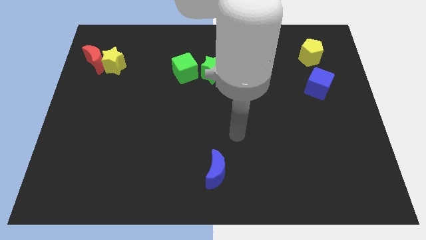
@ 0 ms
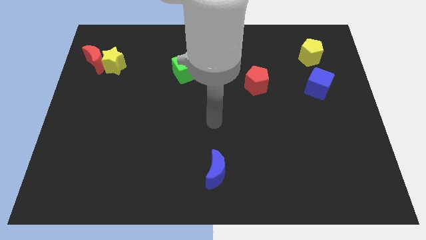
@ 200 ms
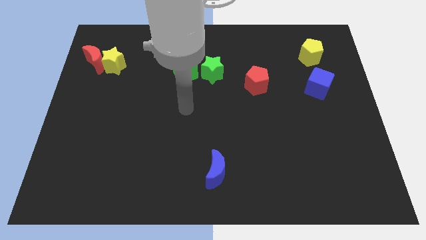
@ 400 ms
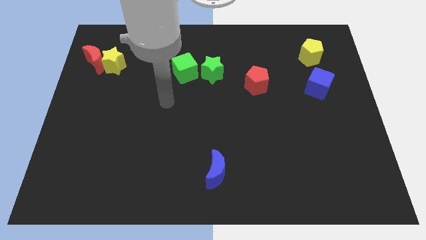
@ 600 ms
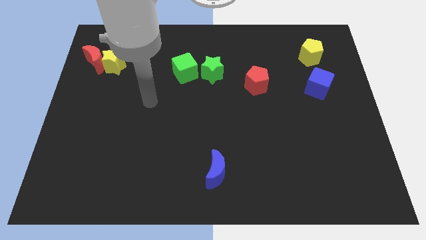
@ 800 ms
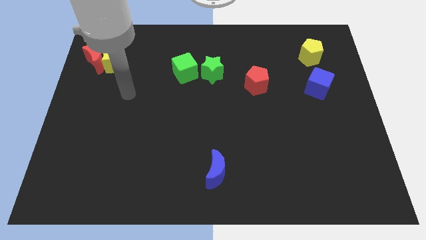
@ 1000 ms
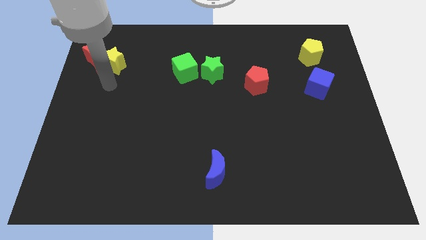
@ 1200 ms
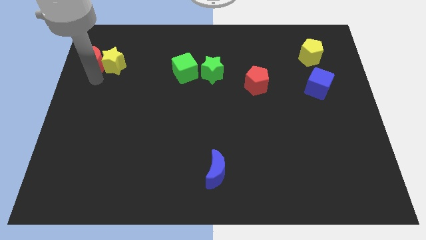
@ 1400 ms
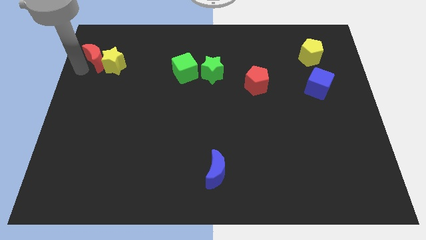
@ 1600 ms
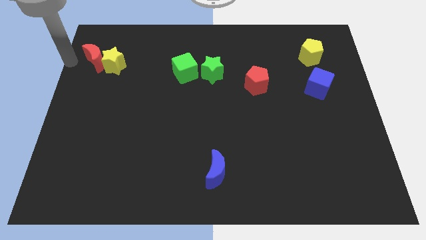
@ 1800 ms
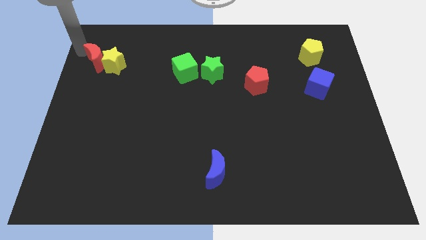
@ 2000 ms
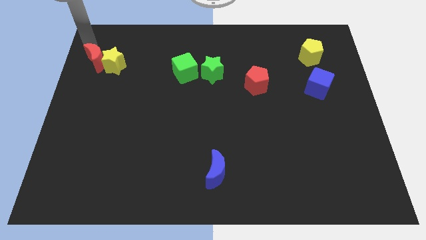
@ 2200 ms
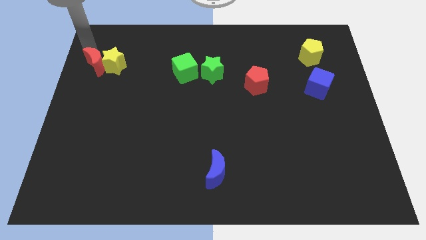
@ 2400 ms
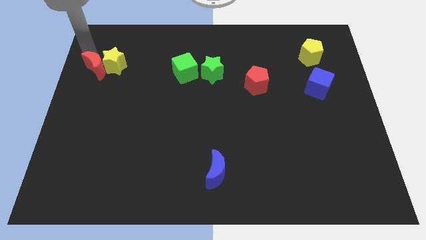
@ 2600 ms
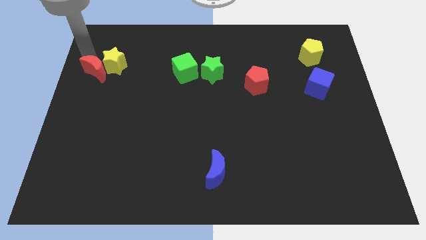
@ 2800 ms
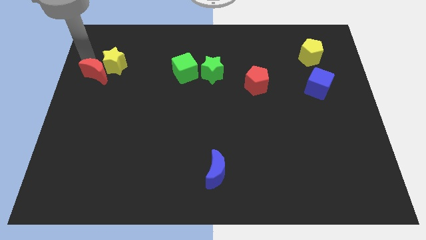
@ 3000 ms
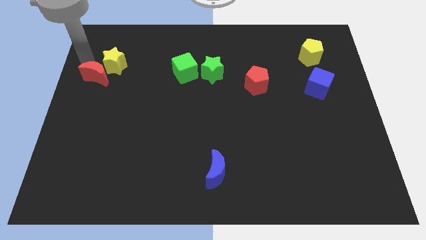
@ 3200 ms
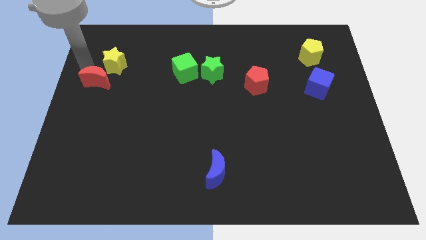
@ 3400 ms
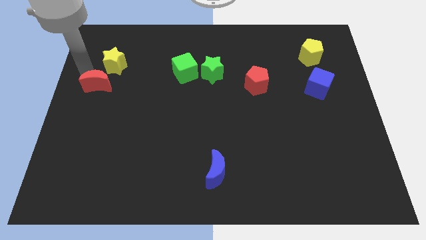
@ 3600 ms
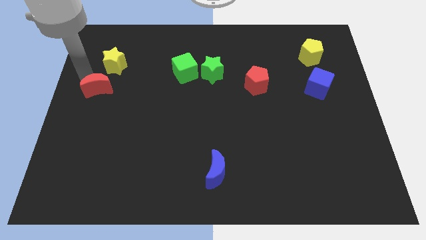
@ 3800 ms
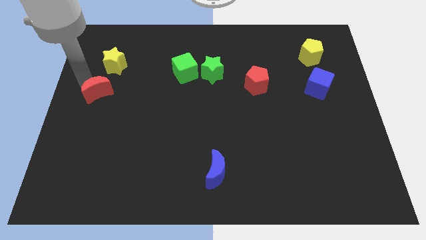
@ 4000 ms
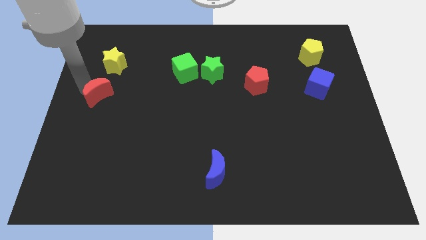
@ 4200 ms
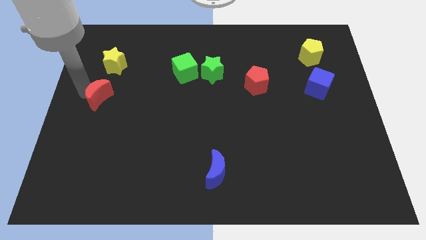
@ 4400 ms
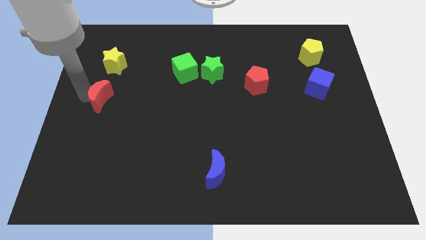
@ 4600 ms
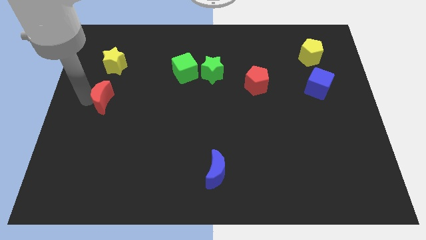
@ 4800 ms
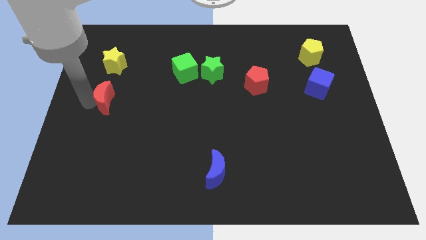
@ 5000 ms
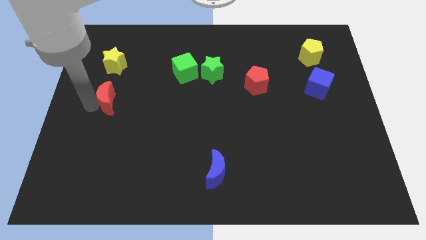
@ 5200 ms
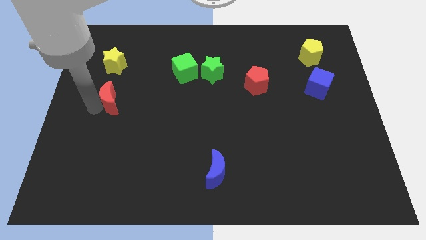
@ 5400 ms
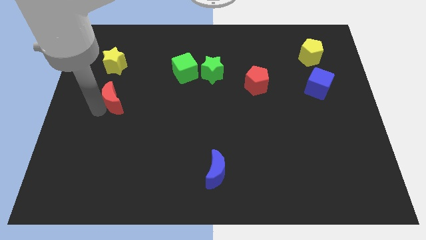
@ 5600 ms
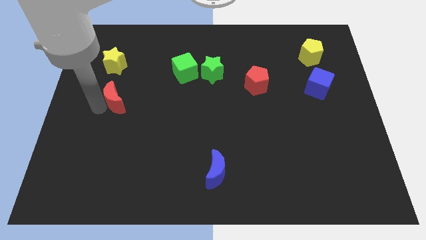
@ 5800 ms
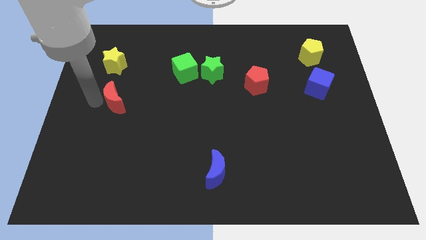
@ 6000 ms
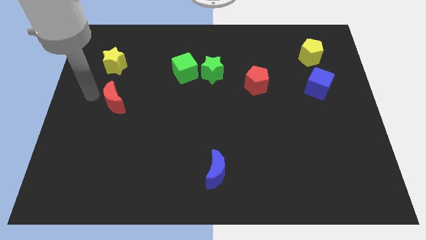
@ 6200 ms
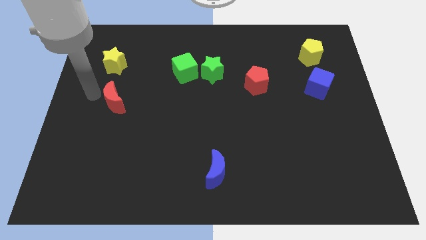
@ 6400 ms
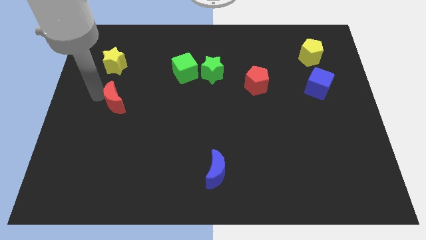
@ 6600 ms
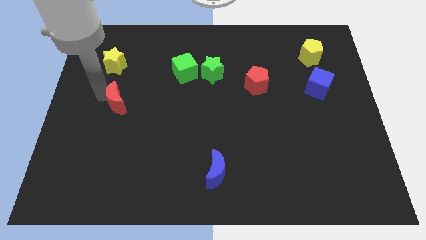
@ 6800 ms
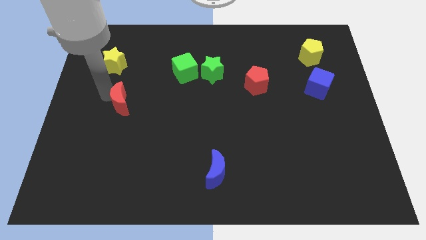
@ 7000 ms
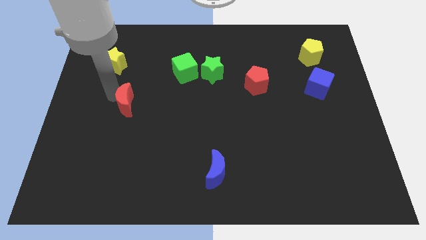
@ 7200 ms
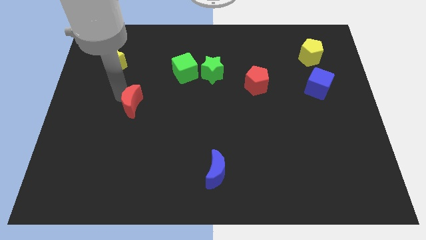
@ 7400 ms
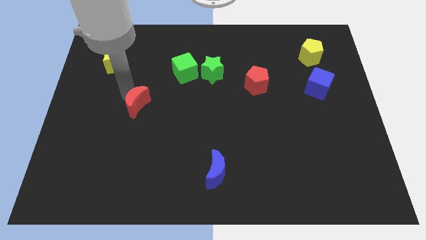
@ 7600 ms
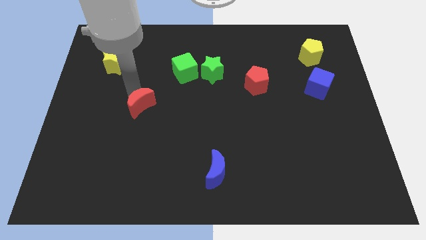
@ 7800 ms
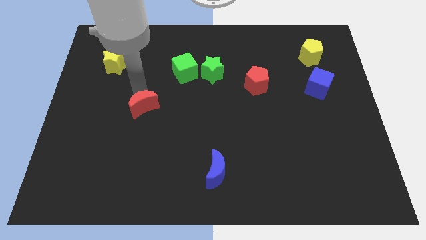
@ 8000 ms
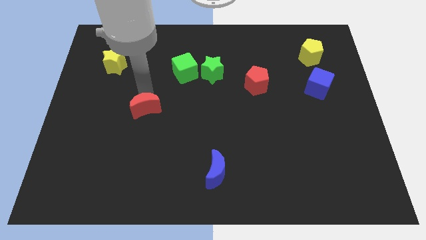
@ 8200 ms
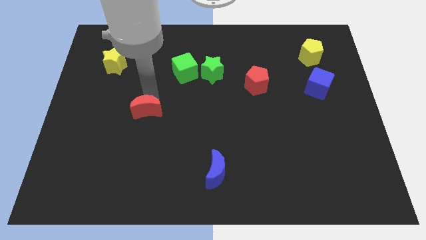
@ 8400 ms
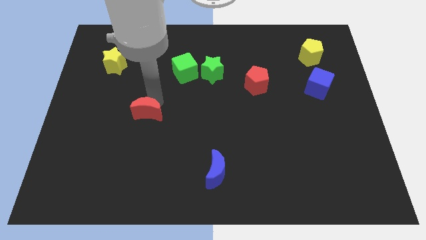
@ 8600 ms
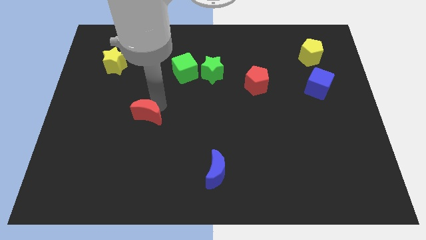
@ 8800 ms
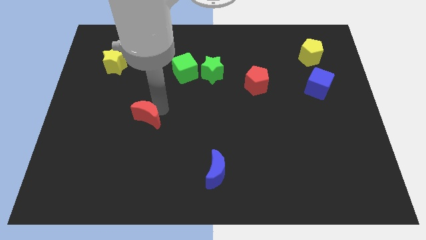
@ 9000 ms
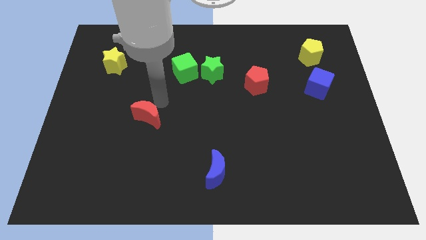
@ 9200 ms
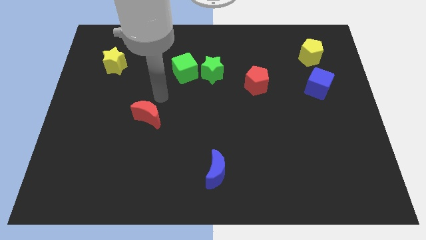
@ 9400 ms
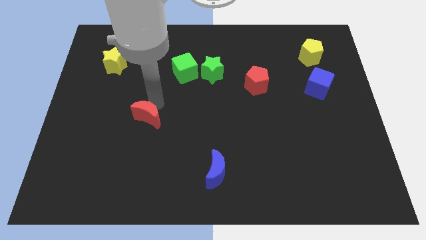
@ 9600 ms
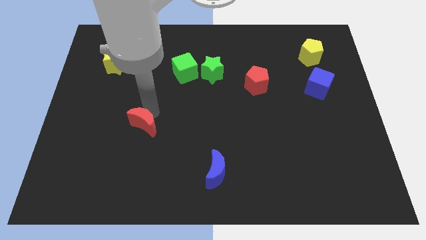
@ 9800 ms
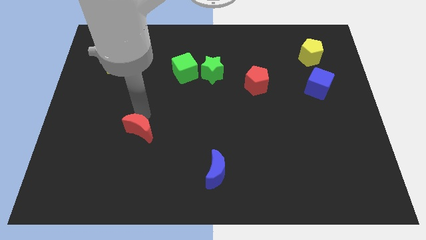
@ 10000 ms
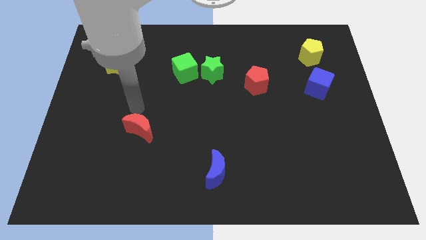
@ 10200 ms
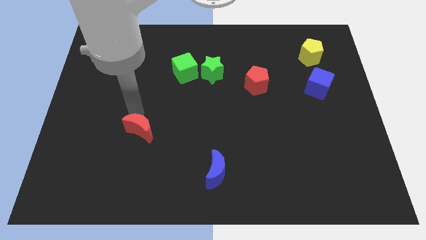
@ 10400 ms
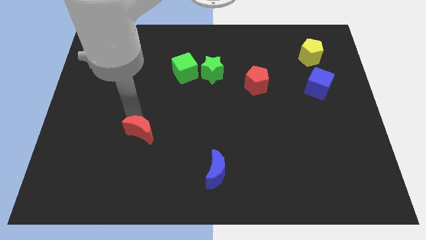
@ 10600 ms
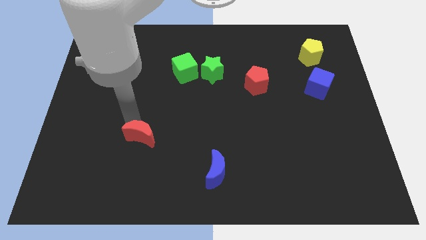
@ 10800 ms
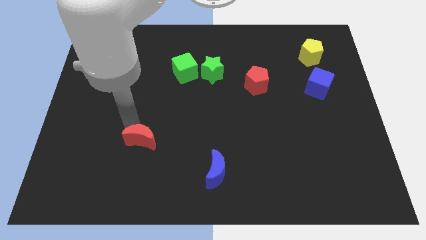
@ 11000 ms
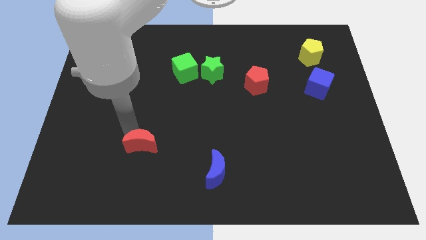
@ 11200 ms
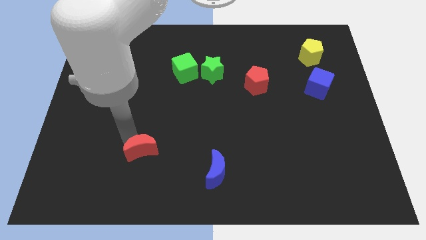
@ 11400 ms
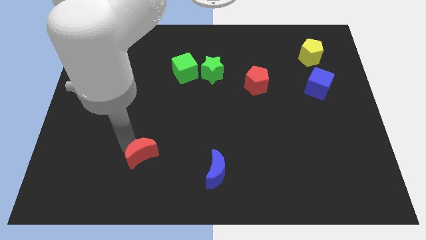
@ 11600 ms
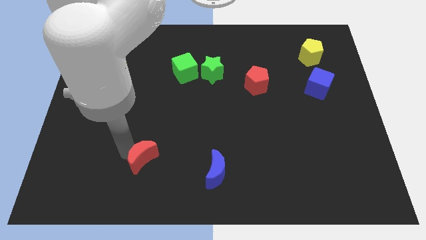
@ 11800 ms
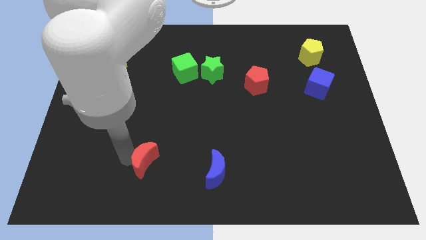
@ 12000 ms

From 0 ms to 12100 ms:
put the red moon just left of the blue moon

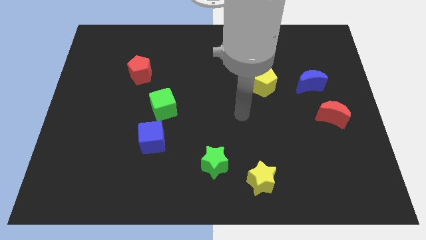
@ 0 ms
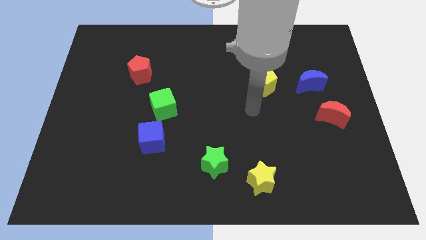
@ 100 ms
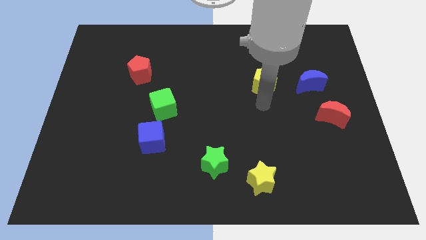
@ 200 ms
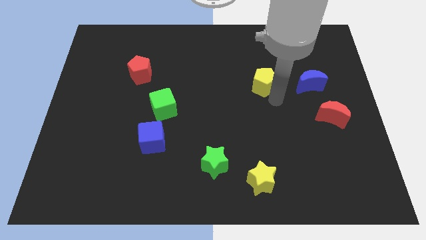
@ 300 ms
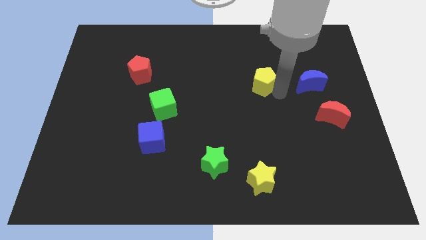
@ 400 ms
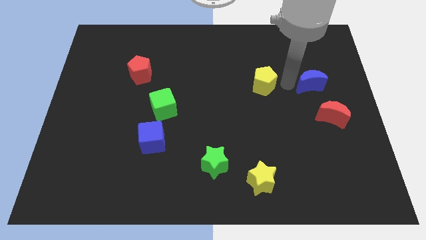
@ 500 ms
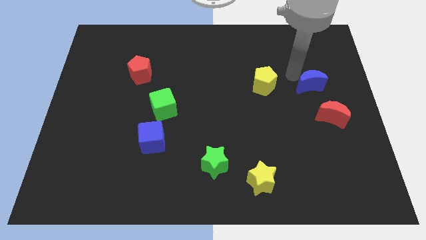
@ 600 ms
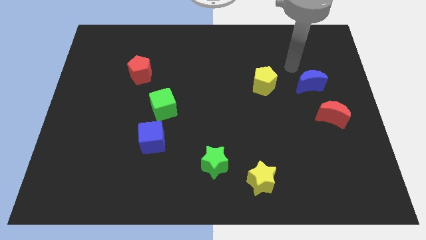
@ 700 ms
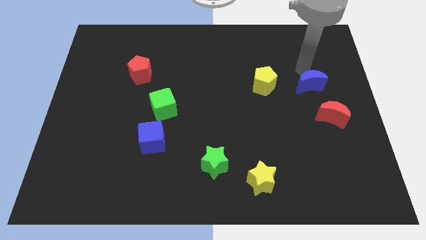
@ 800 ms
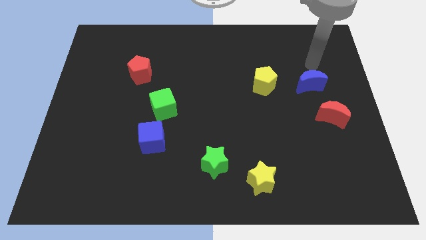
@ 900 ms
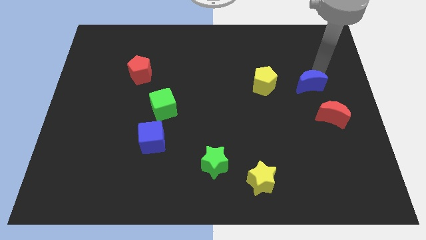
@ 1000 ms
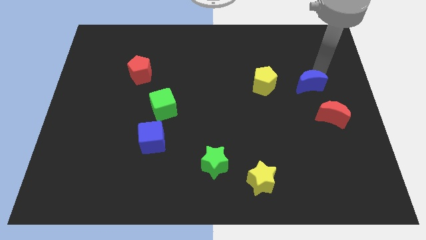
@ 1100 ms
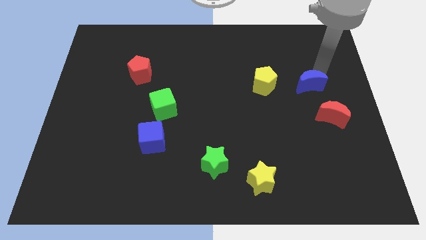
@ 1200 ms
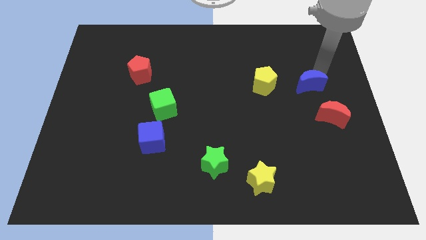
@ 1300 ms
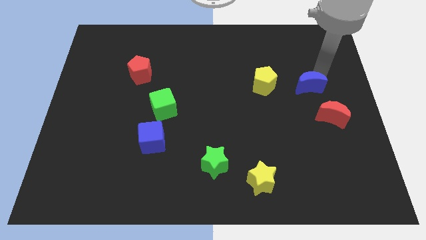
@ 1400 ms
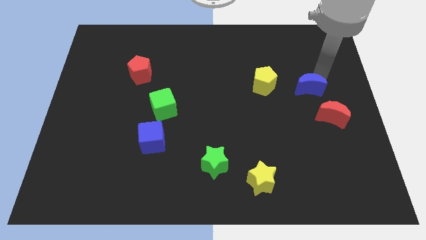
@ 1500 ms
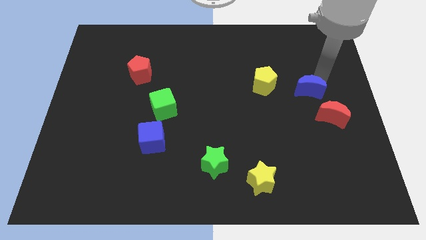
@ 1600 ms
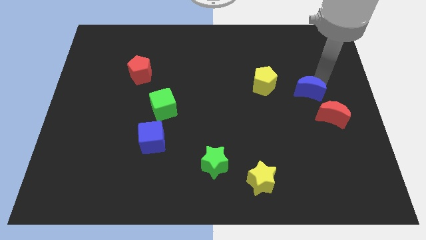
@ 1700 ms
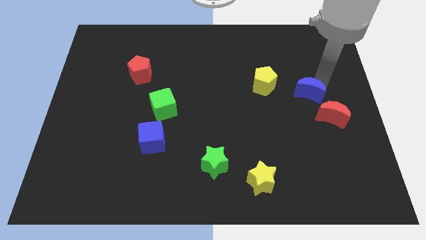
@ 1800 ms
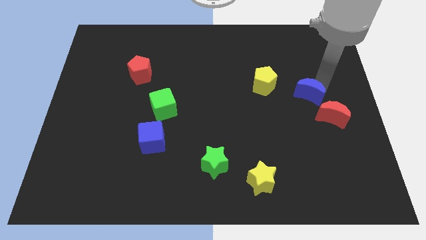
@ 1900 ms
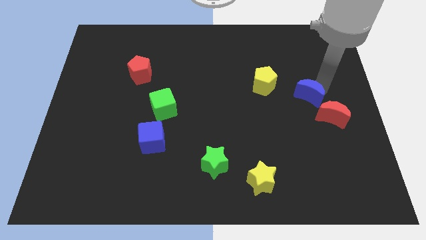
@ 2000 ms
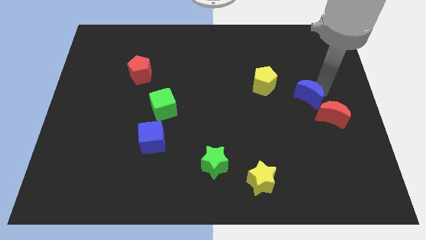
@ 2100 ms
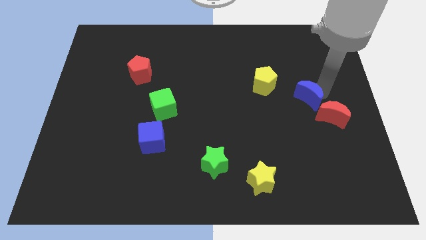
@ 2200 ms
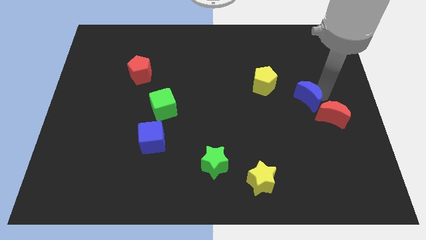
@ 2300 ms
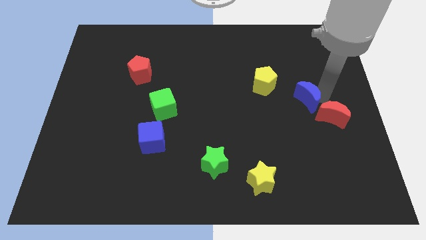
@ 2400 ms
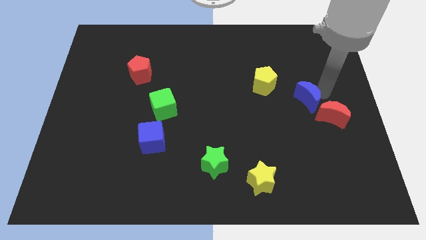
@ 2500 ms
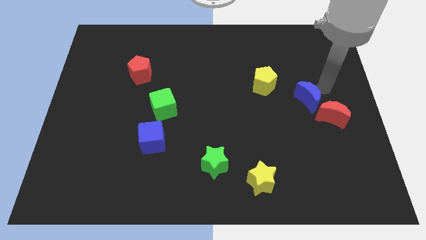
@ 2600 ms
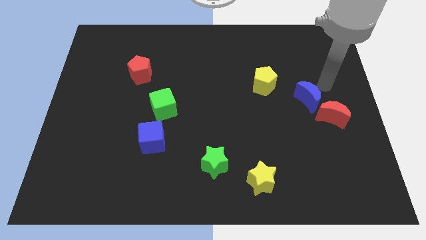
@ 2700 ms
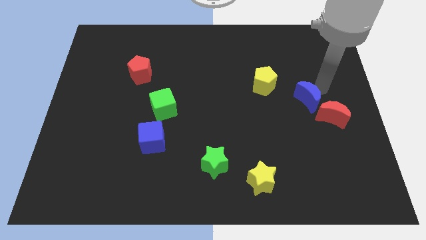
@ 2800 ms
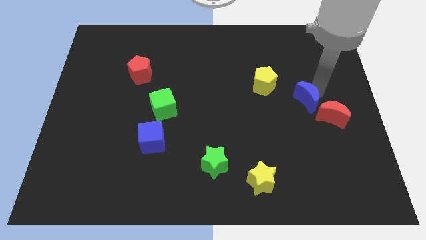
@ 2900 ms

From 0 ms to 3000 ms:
move the blue moon to the left of the red moon
